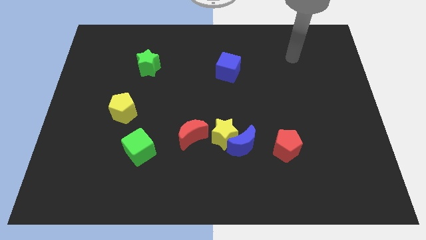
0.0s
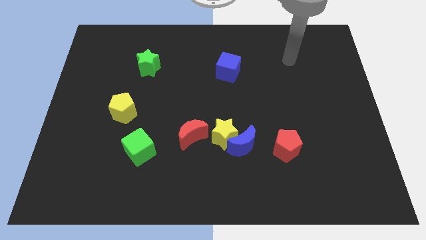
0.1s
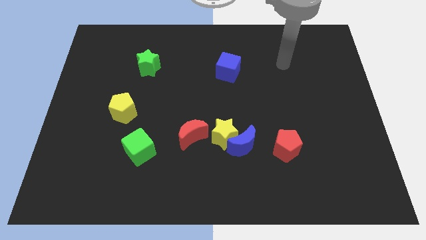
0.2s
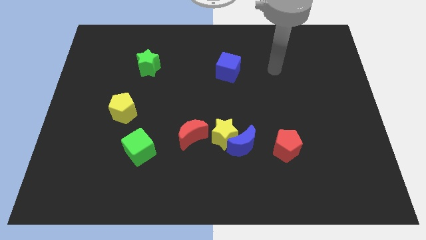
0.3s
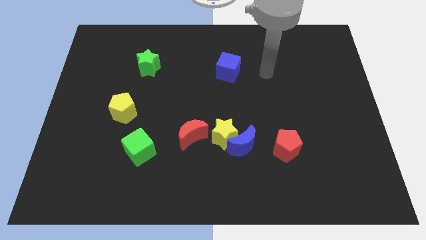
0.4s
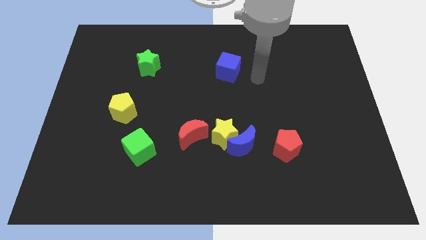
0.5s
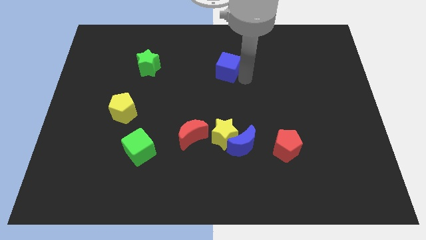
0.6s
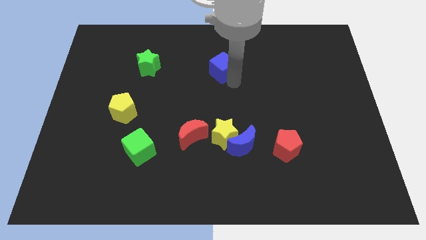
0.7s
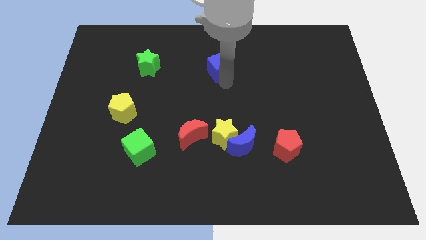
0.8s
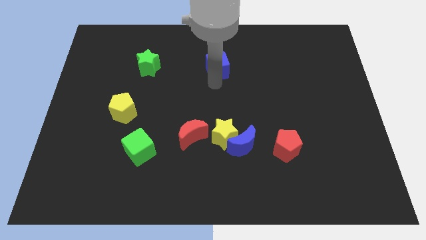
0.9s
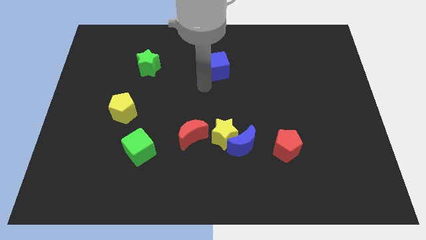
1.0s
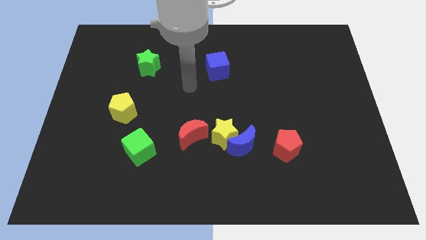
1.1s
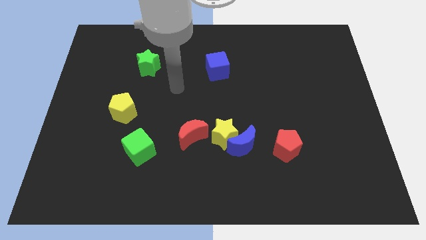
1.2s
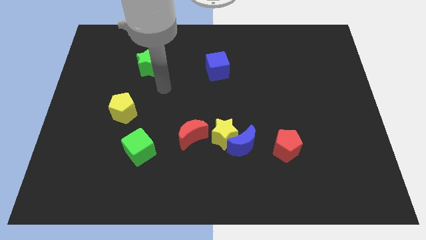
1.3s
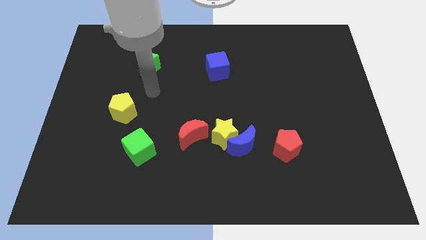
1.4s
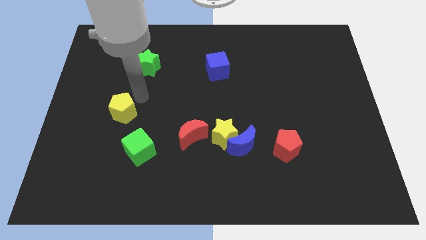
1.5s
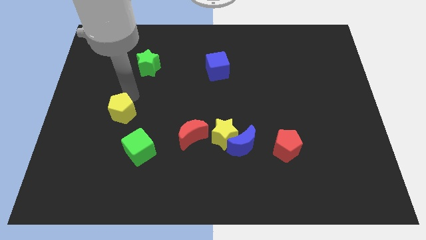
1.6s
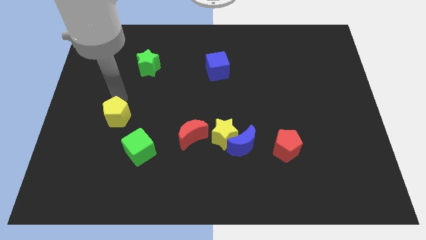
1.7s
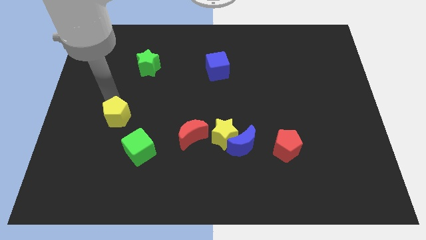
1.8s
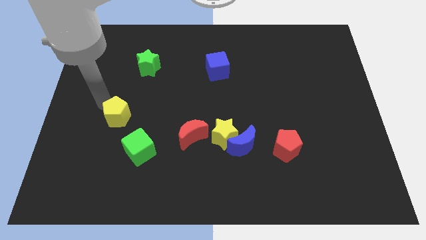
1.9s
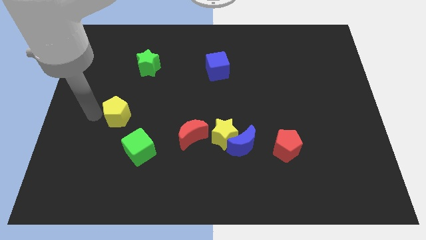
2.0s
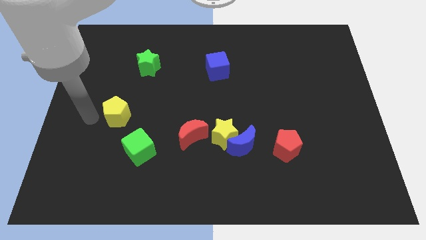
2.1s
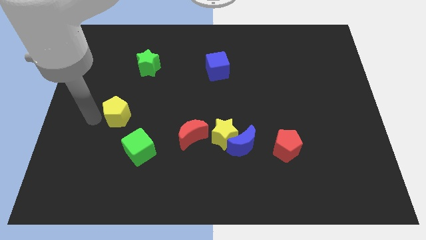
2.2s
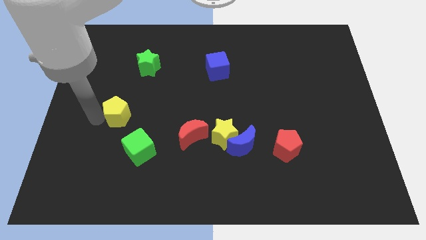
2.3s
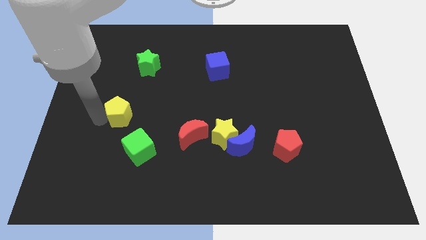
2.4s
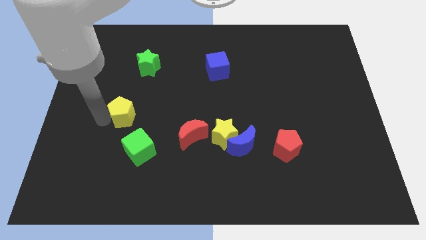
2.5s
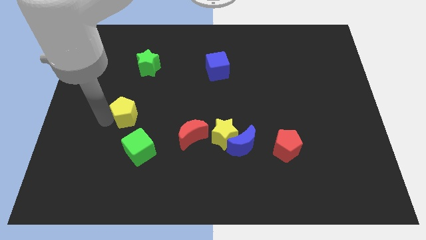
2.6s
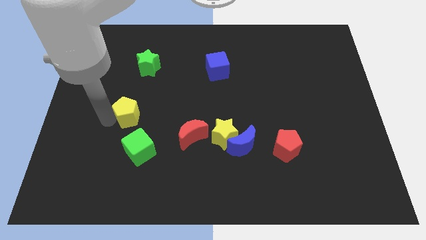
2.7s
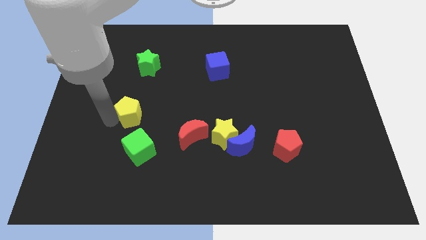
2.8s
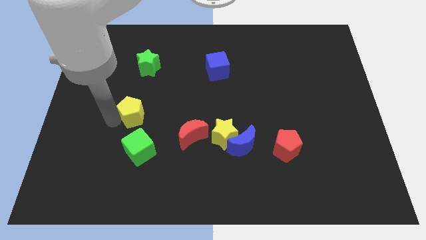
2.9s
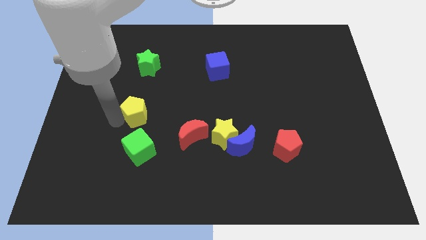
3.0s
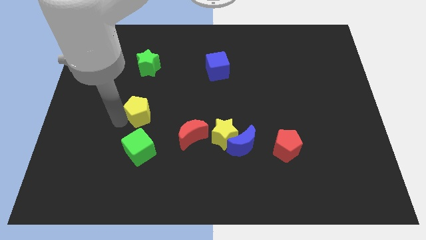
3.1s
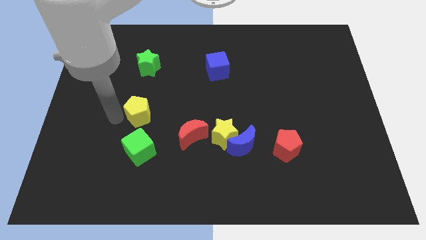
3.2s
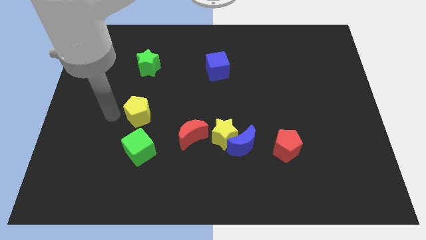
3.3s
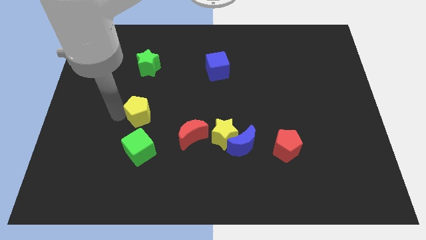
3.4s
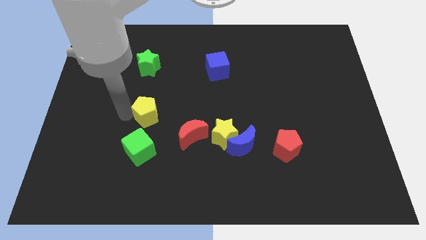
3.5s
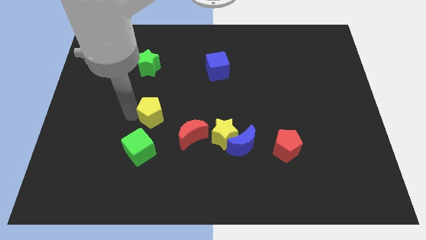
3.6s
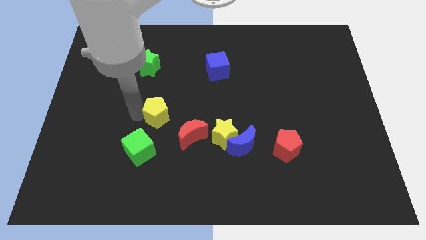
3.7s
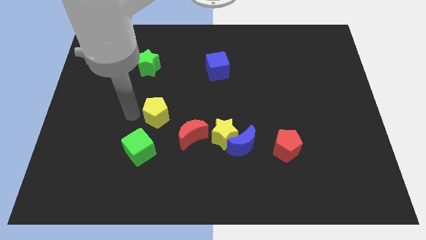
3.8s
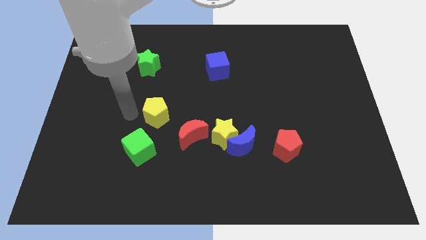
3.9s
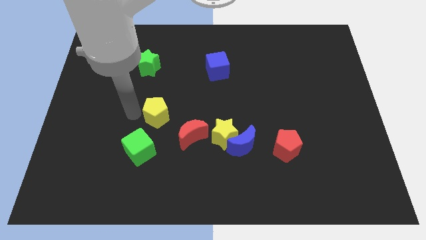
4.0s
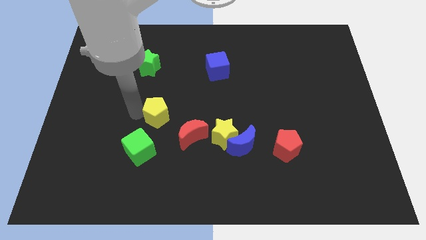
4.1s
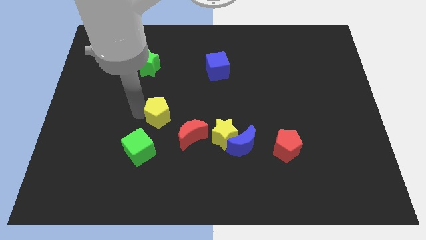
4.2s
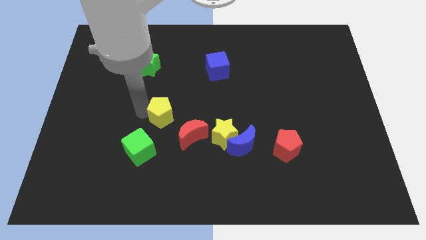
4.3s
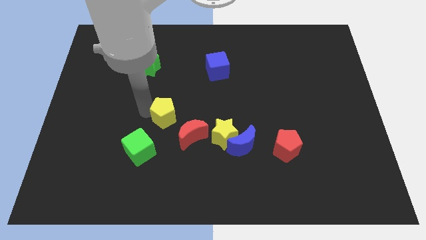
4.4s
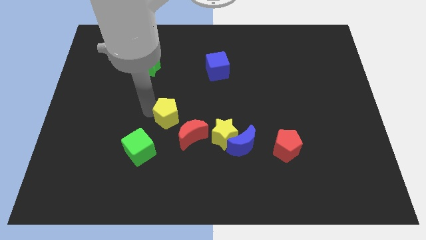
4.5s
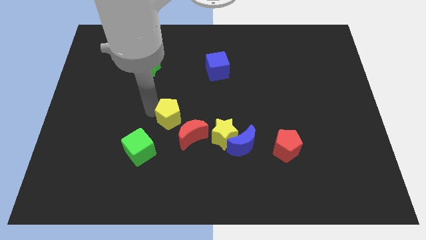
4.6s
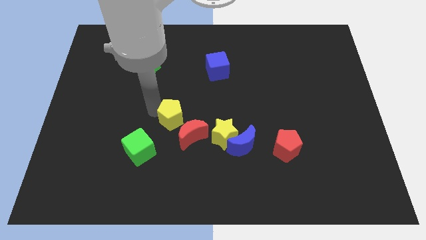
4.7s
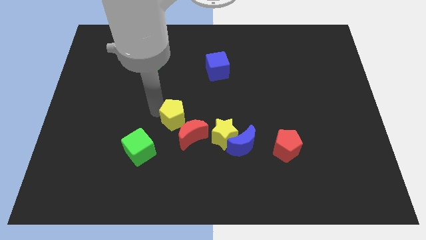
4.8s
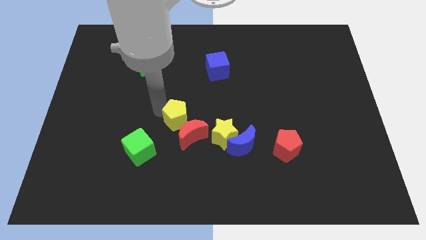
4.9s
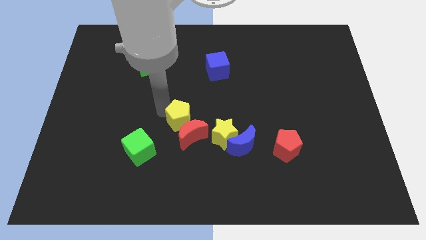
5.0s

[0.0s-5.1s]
move the yellow pentagon to the top left side of the yellow star

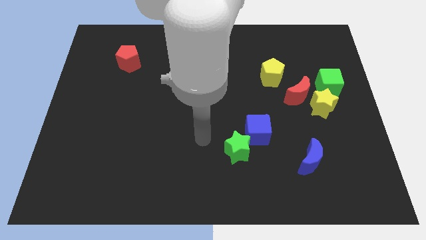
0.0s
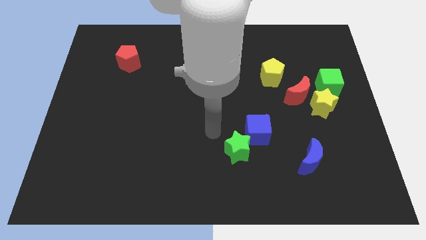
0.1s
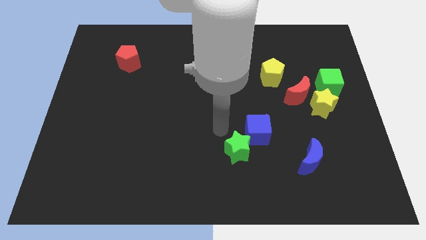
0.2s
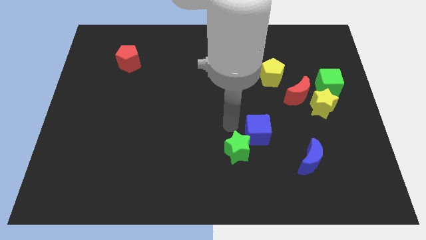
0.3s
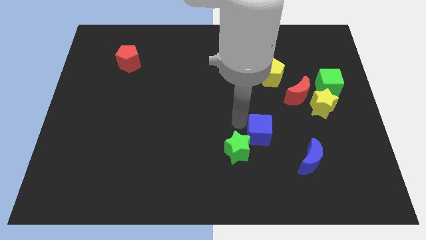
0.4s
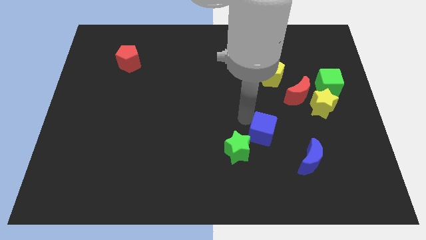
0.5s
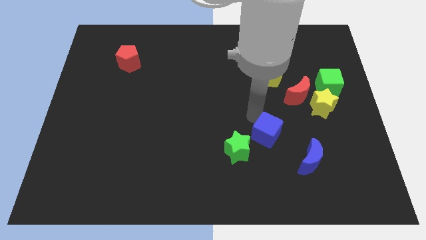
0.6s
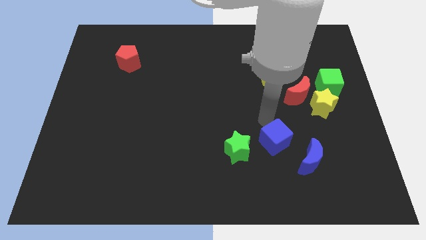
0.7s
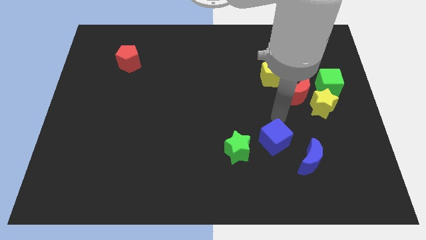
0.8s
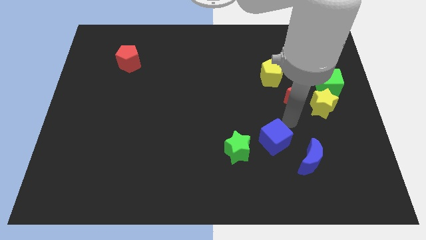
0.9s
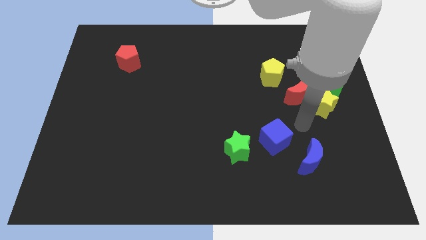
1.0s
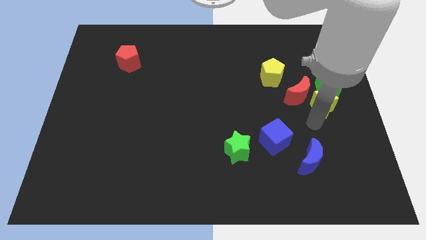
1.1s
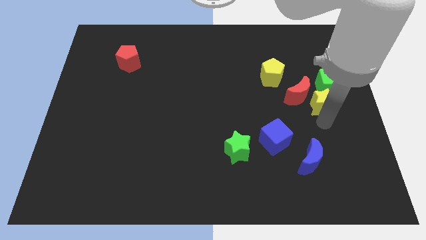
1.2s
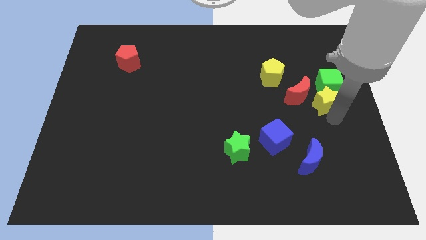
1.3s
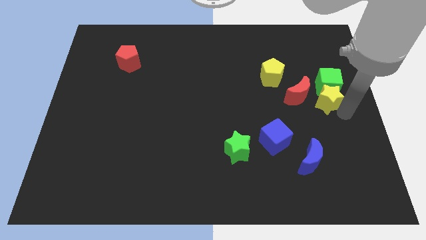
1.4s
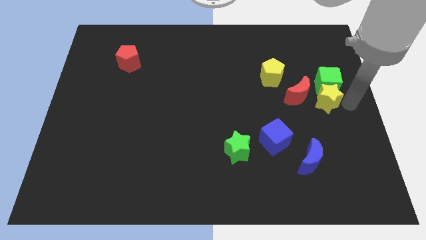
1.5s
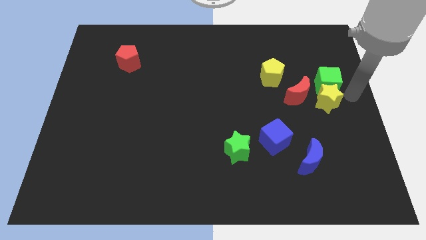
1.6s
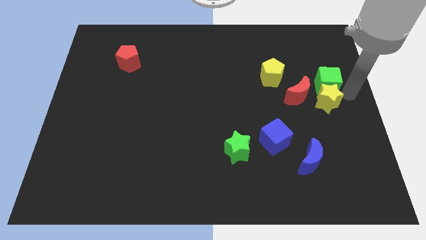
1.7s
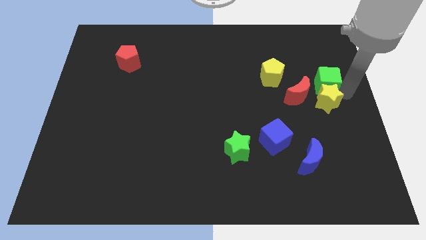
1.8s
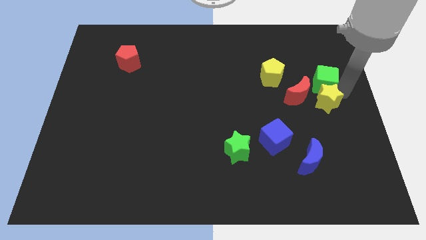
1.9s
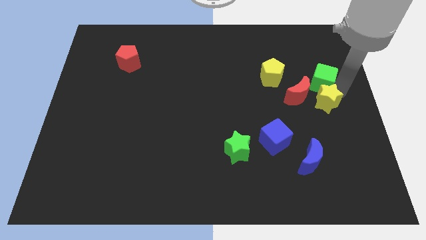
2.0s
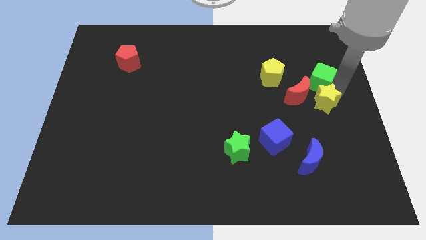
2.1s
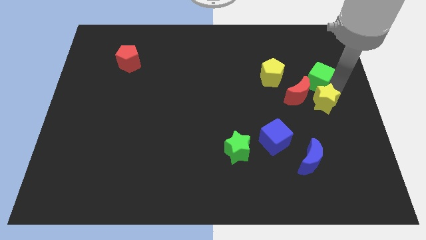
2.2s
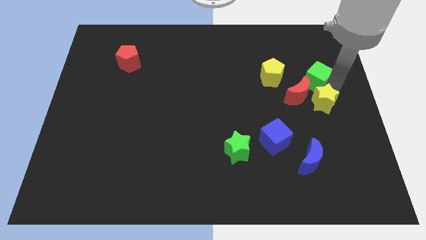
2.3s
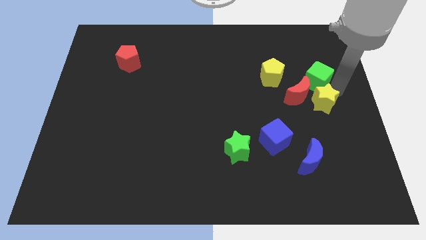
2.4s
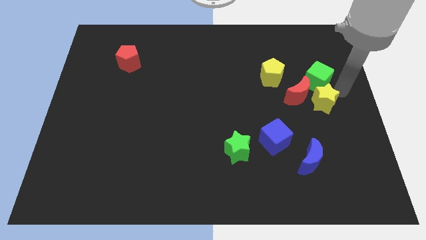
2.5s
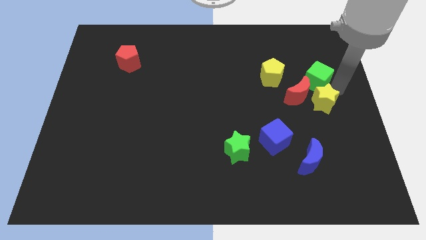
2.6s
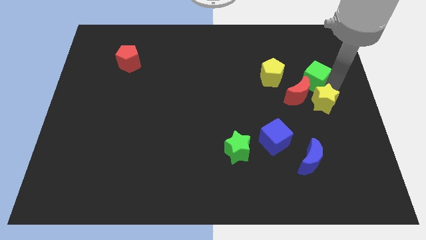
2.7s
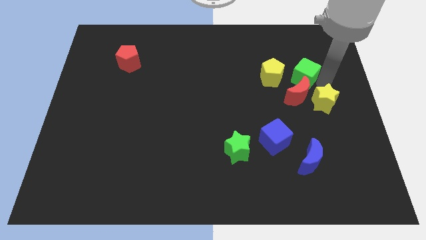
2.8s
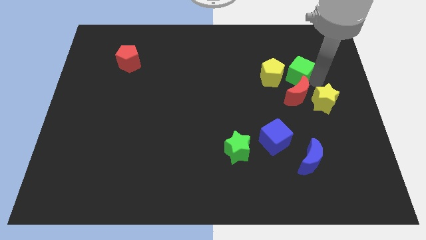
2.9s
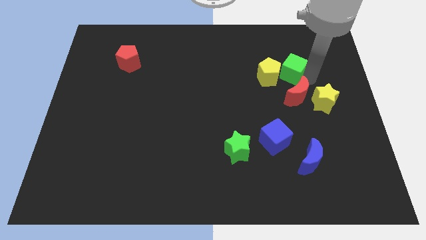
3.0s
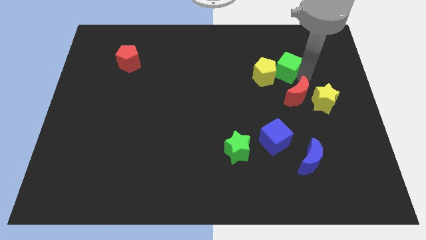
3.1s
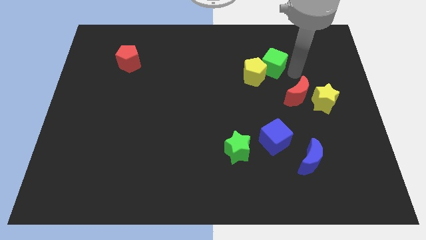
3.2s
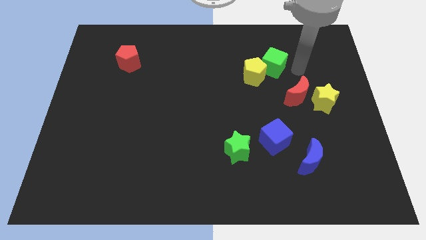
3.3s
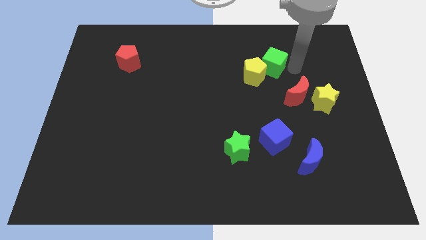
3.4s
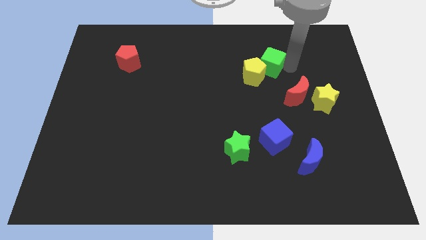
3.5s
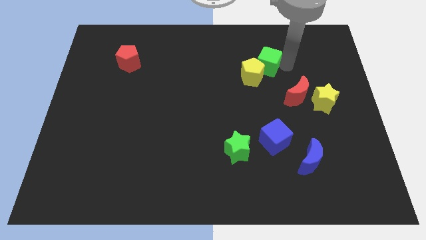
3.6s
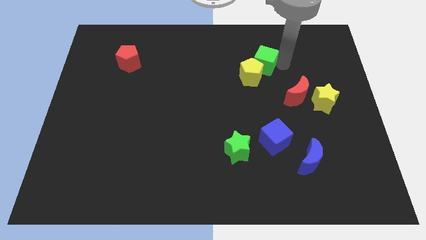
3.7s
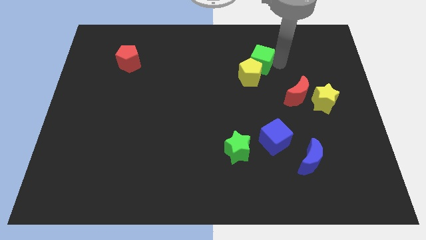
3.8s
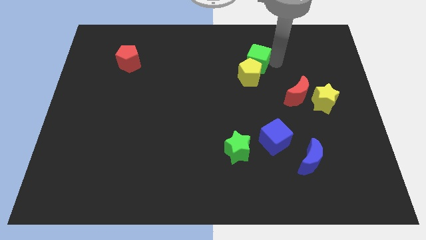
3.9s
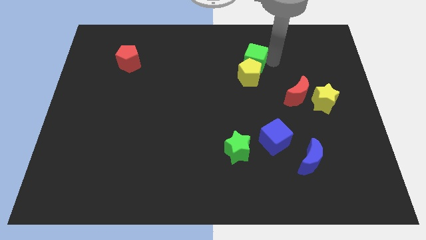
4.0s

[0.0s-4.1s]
push the green cube to the top left of the yellow pentagon
